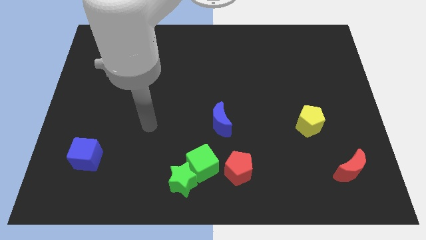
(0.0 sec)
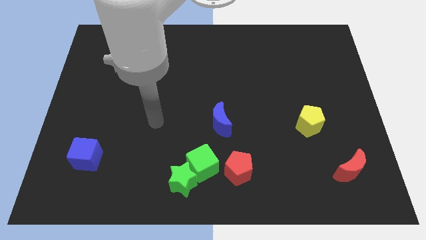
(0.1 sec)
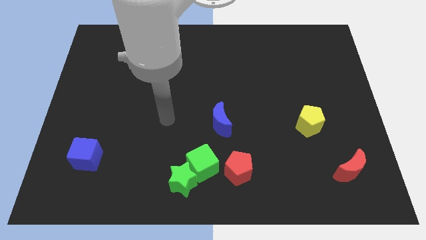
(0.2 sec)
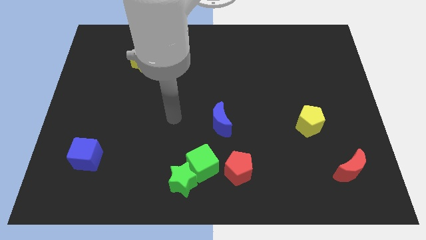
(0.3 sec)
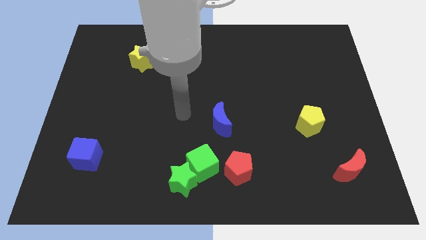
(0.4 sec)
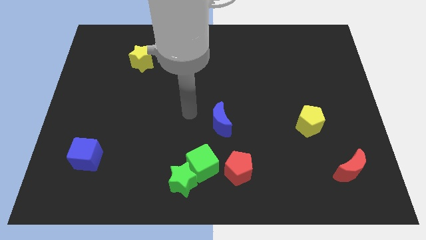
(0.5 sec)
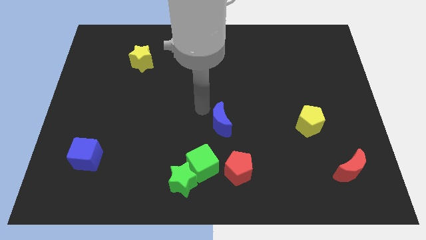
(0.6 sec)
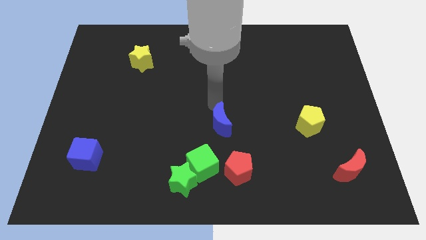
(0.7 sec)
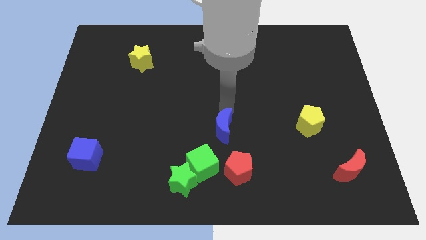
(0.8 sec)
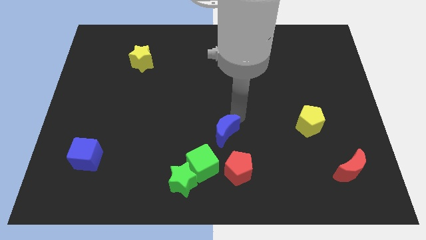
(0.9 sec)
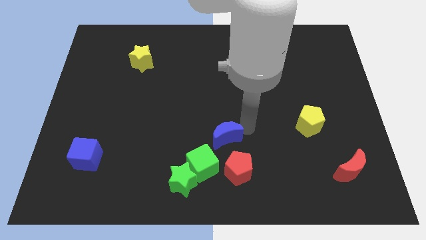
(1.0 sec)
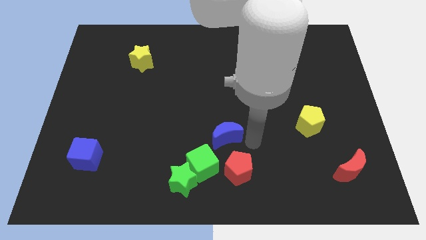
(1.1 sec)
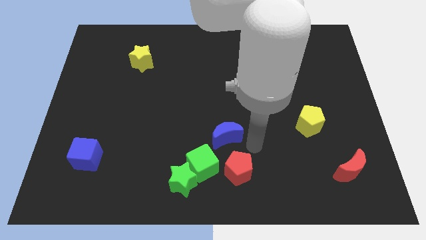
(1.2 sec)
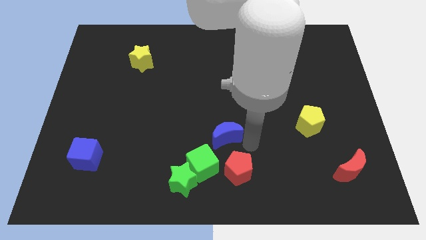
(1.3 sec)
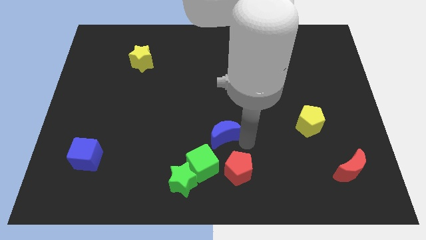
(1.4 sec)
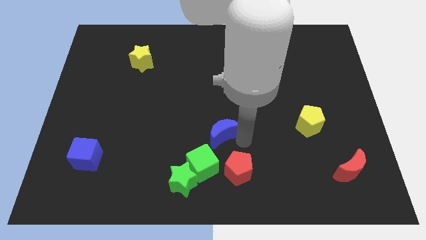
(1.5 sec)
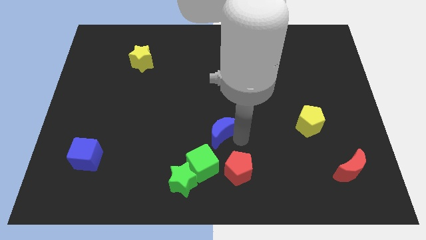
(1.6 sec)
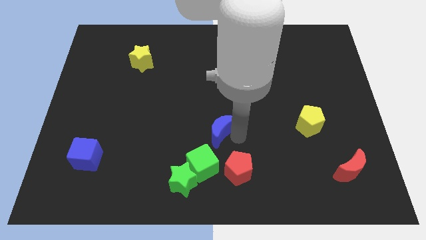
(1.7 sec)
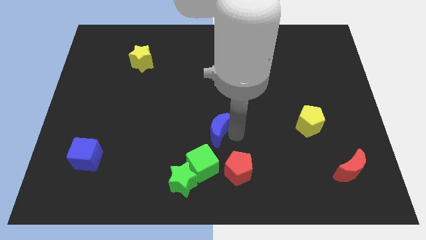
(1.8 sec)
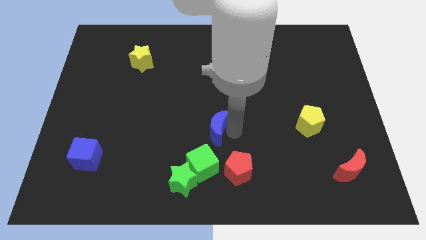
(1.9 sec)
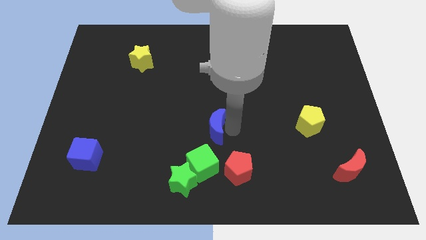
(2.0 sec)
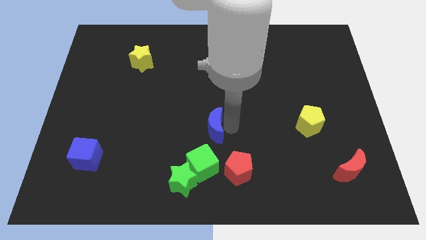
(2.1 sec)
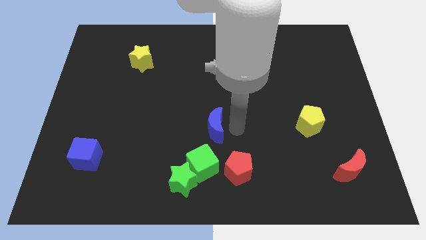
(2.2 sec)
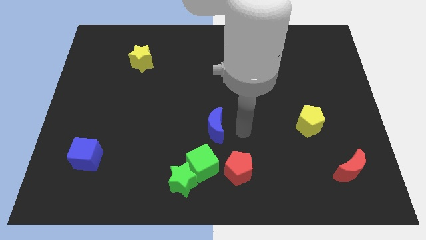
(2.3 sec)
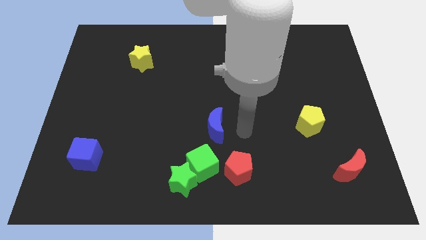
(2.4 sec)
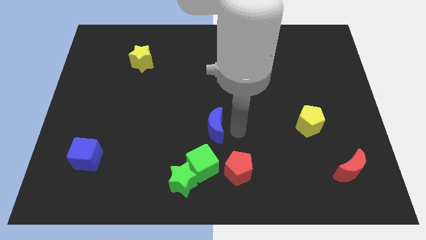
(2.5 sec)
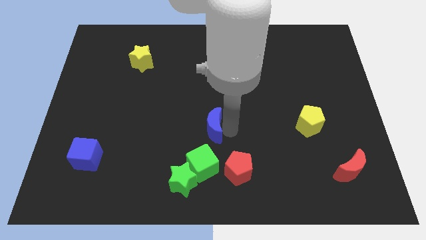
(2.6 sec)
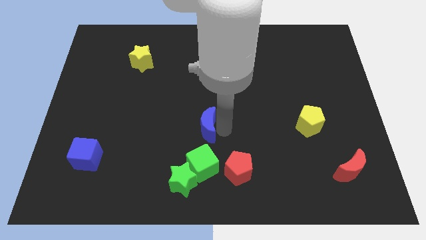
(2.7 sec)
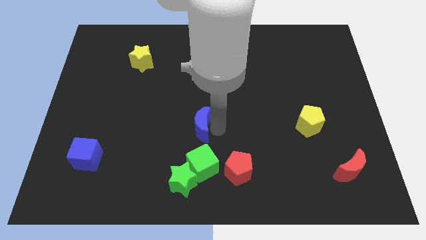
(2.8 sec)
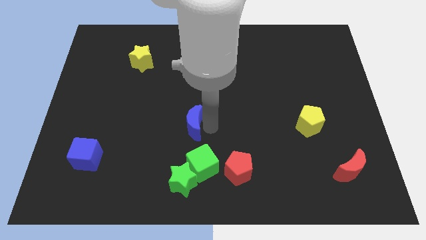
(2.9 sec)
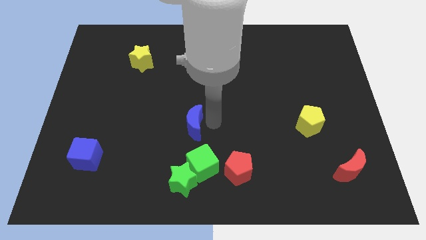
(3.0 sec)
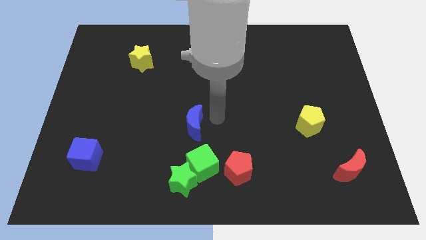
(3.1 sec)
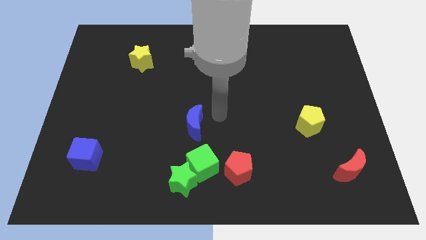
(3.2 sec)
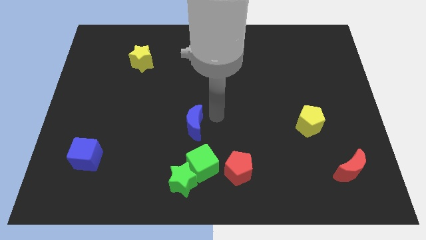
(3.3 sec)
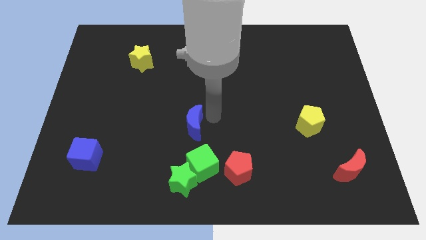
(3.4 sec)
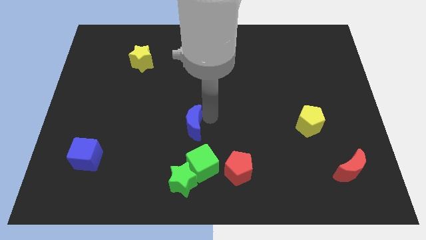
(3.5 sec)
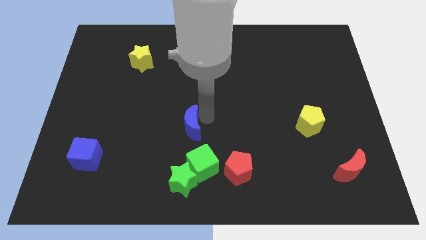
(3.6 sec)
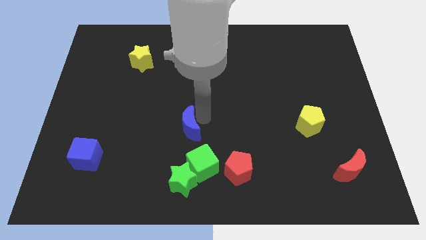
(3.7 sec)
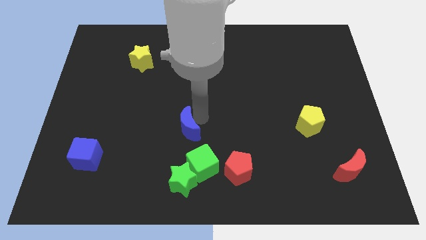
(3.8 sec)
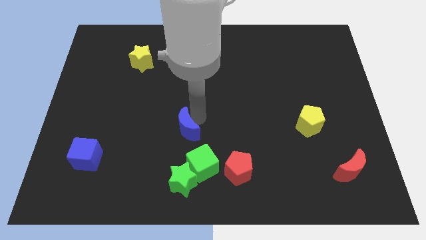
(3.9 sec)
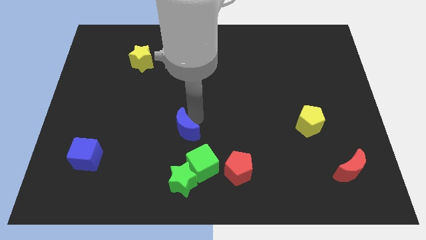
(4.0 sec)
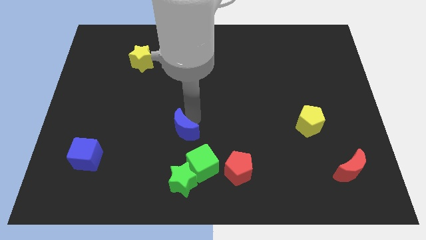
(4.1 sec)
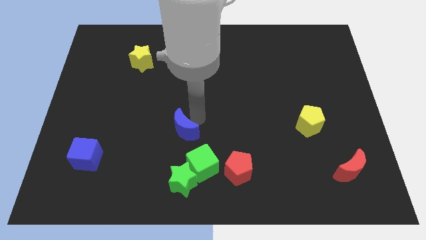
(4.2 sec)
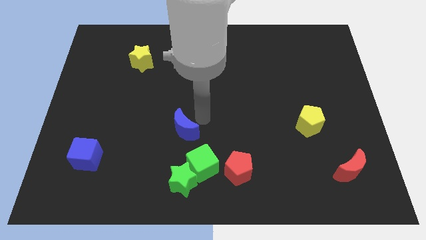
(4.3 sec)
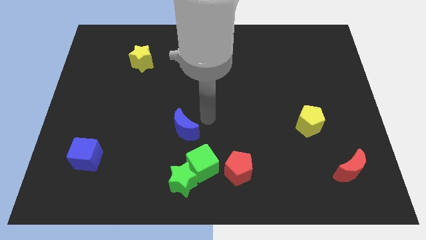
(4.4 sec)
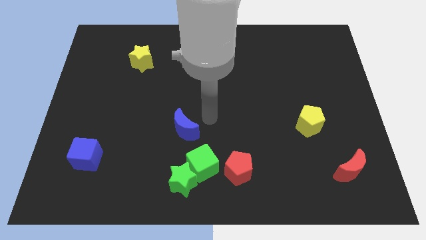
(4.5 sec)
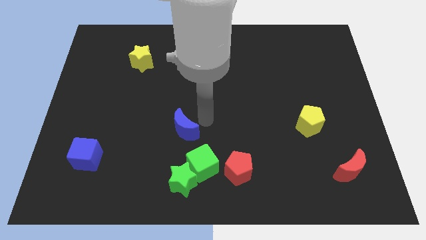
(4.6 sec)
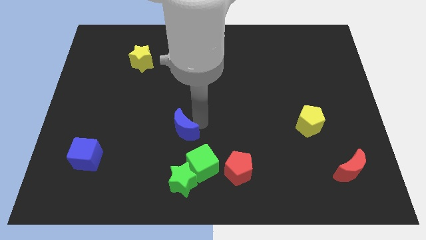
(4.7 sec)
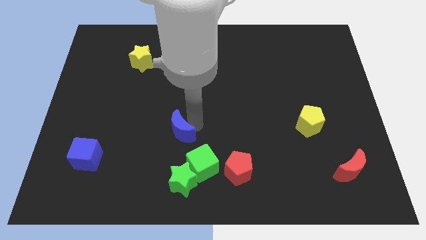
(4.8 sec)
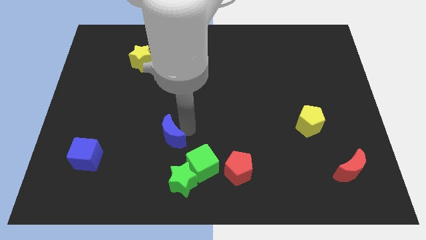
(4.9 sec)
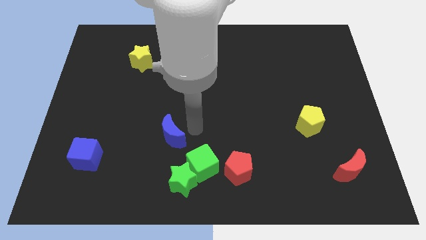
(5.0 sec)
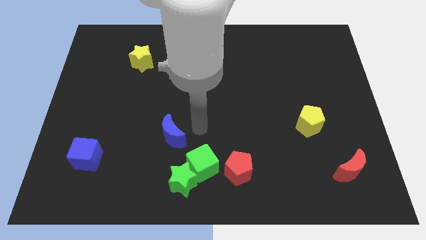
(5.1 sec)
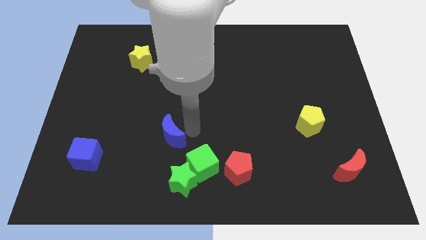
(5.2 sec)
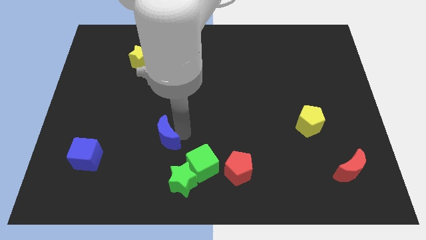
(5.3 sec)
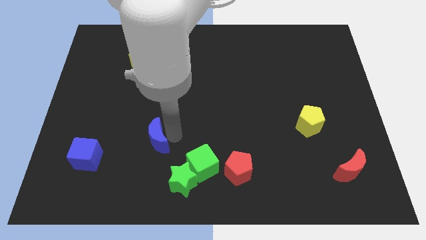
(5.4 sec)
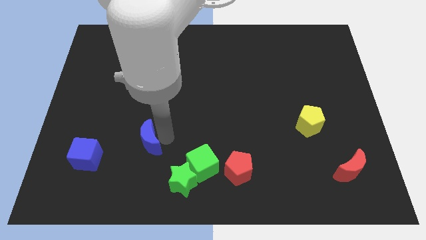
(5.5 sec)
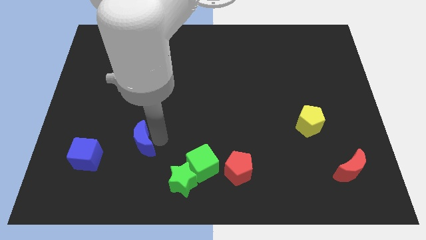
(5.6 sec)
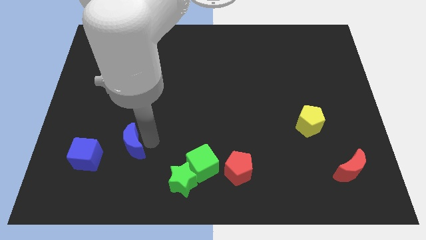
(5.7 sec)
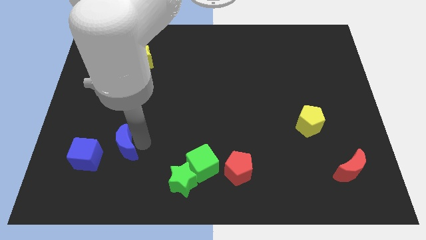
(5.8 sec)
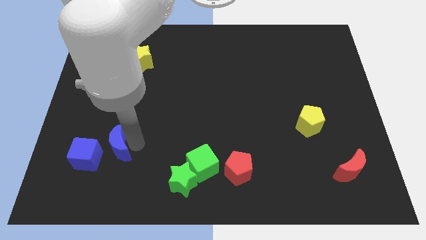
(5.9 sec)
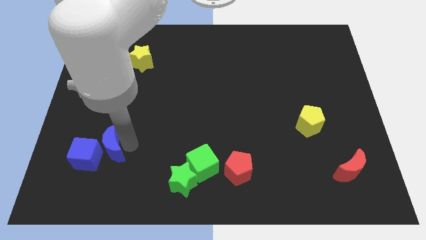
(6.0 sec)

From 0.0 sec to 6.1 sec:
move the blue moon next to the blue cube

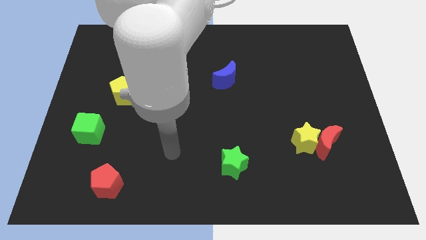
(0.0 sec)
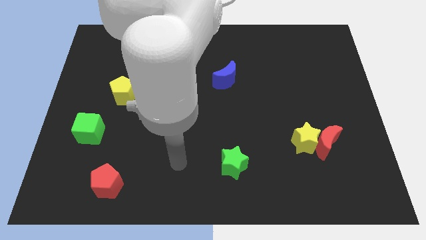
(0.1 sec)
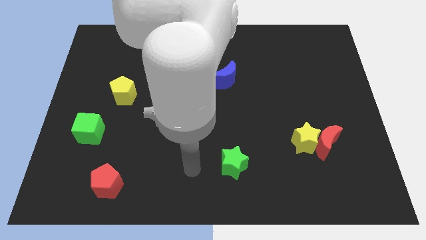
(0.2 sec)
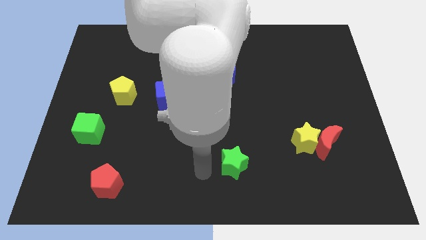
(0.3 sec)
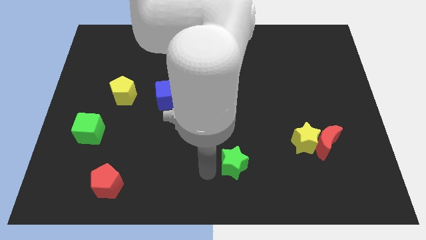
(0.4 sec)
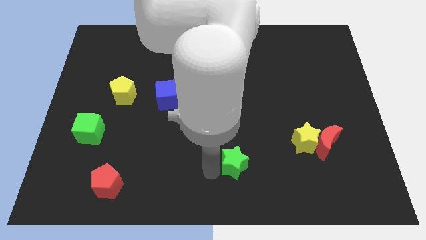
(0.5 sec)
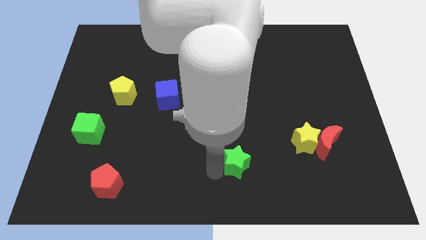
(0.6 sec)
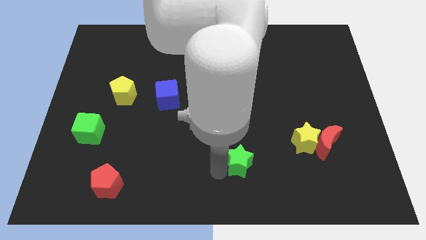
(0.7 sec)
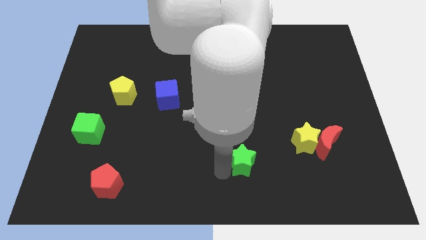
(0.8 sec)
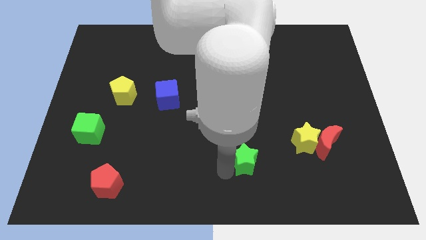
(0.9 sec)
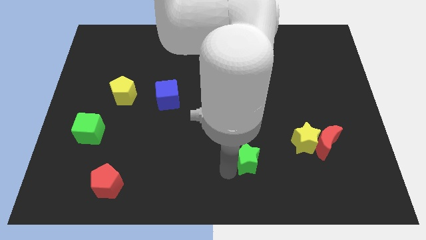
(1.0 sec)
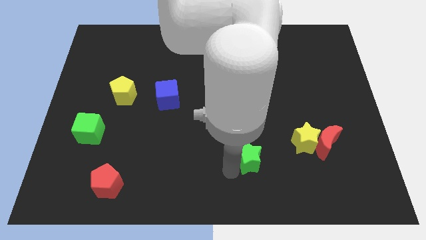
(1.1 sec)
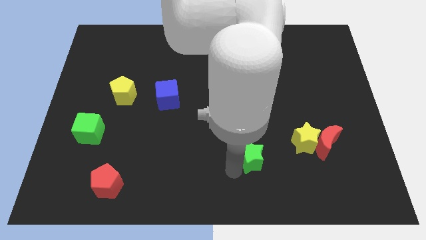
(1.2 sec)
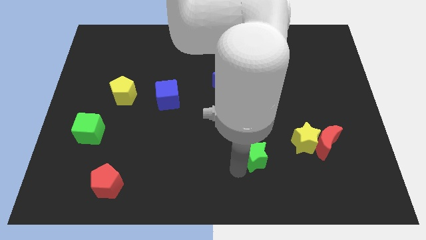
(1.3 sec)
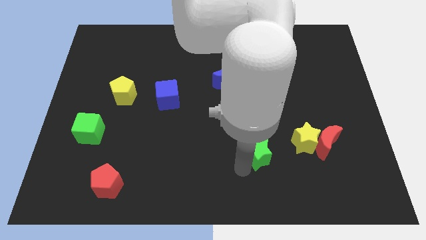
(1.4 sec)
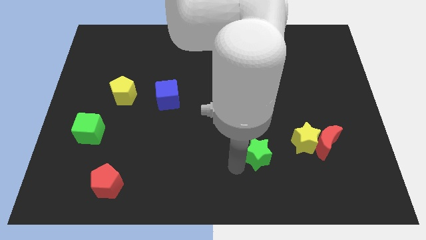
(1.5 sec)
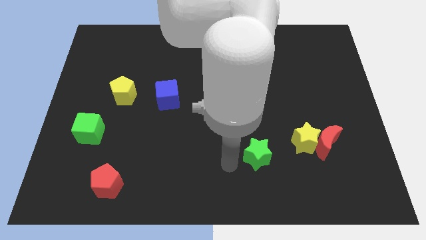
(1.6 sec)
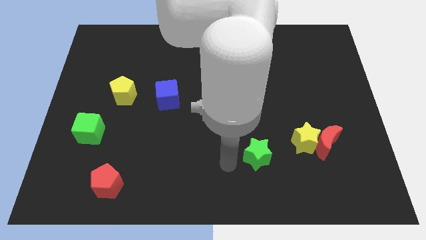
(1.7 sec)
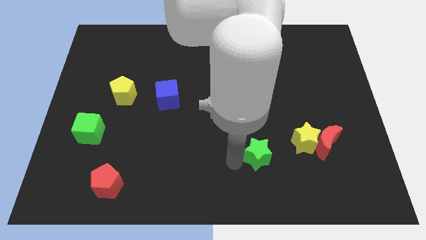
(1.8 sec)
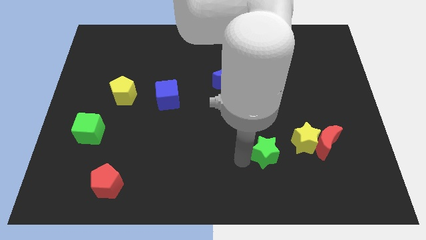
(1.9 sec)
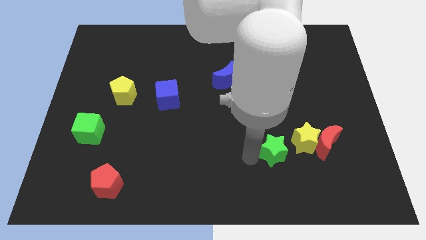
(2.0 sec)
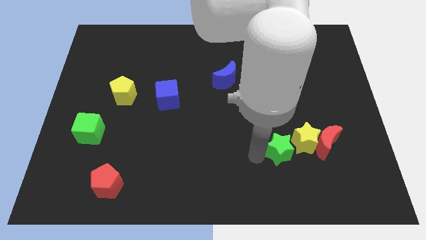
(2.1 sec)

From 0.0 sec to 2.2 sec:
move the green star towards the yellow star
